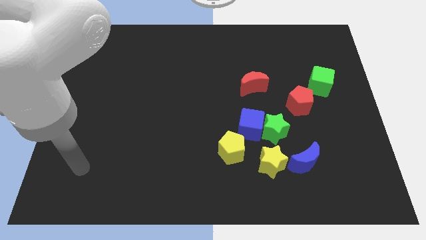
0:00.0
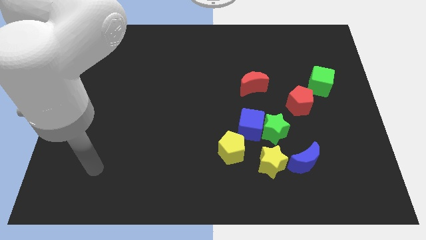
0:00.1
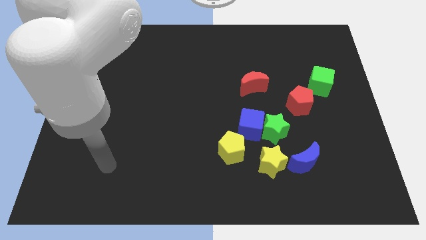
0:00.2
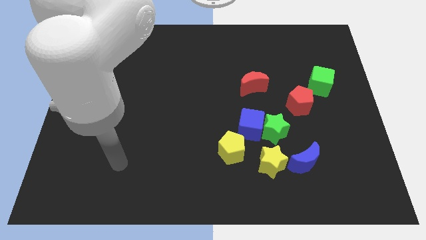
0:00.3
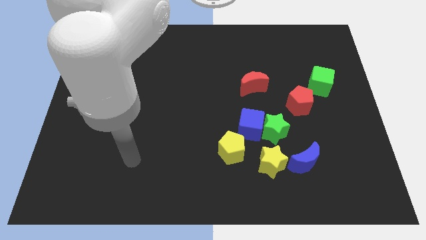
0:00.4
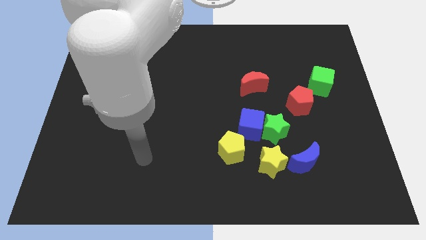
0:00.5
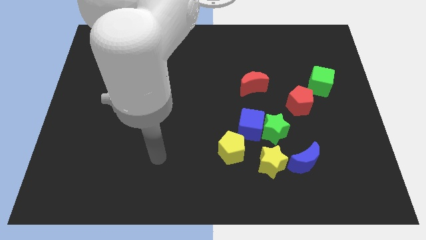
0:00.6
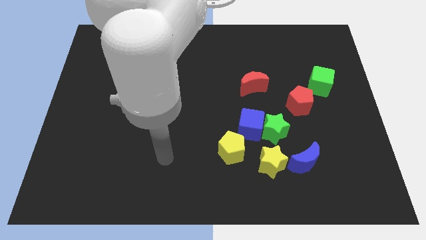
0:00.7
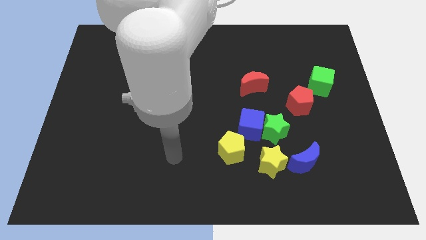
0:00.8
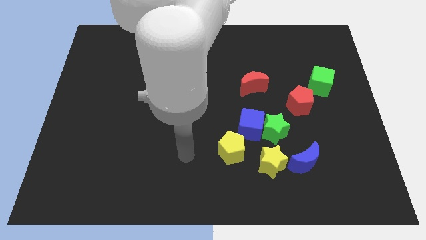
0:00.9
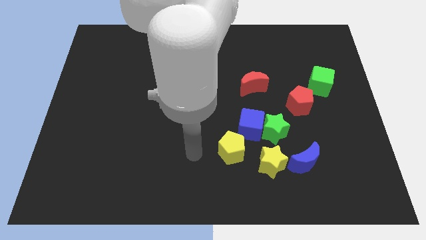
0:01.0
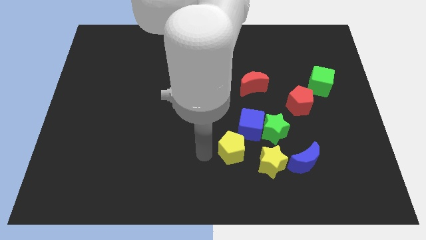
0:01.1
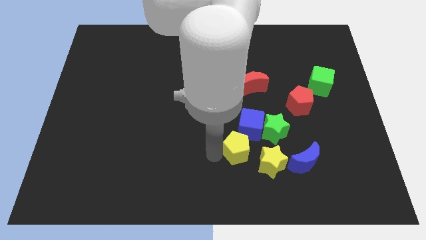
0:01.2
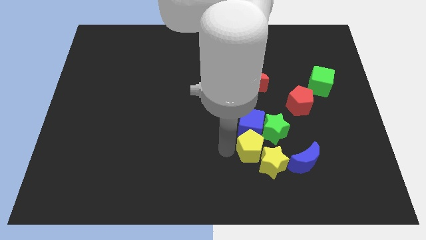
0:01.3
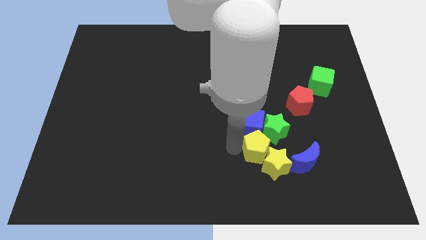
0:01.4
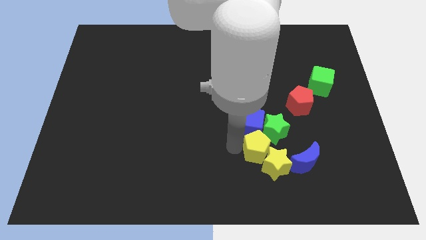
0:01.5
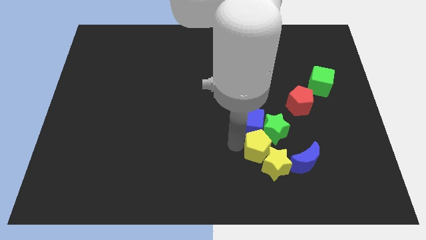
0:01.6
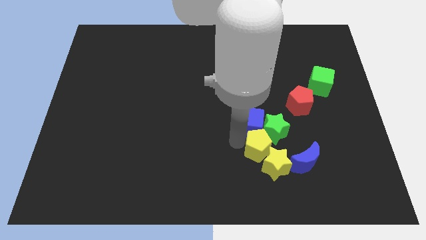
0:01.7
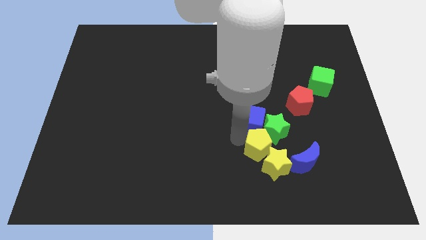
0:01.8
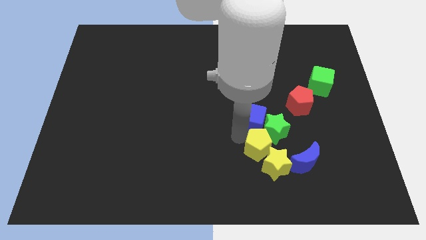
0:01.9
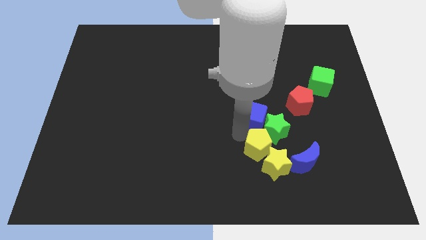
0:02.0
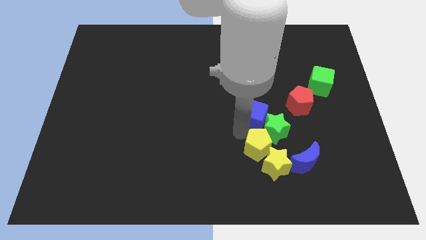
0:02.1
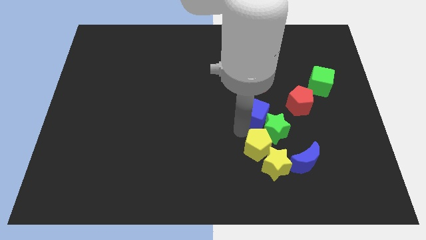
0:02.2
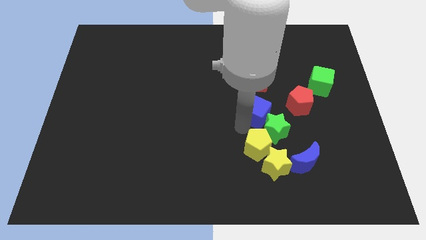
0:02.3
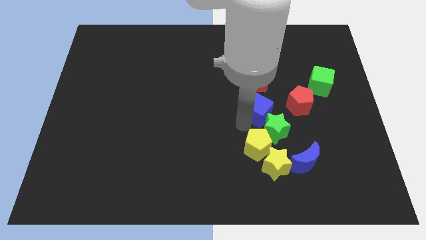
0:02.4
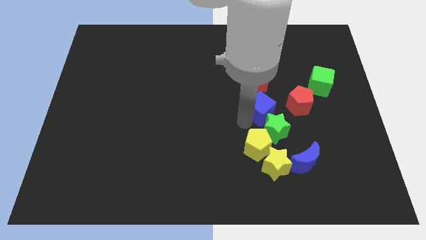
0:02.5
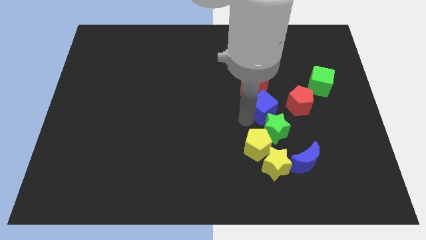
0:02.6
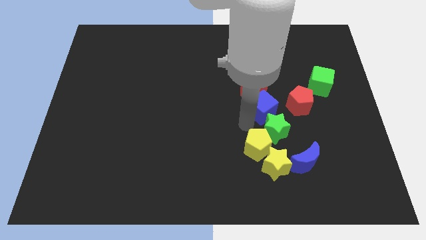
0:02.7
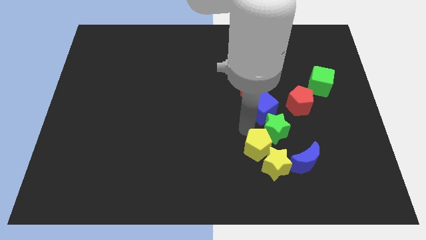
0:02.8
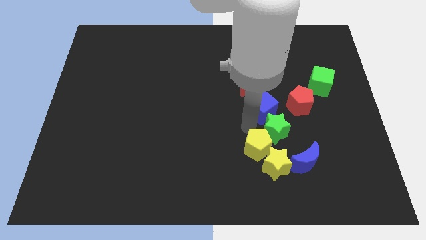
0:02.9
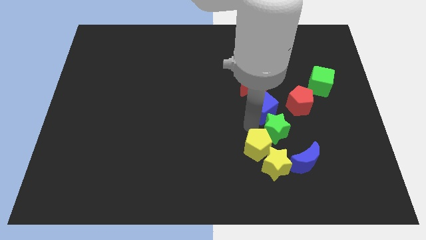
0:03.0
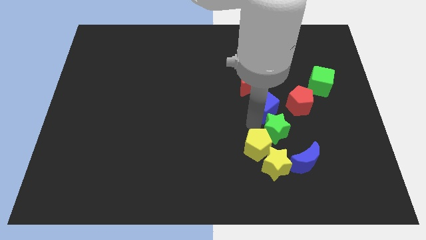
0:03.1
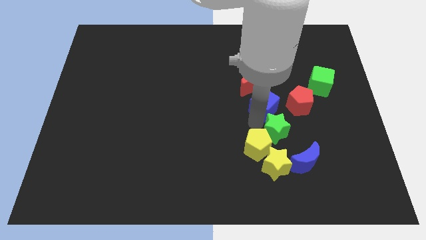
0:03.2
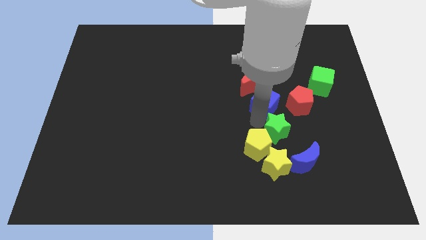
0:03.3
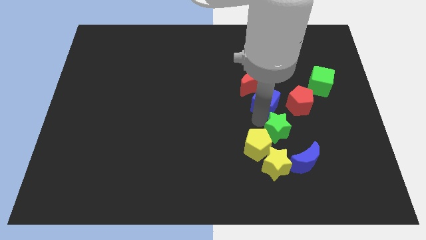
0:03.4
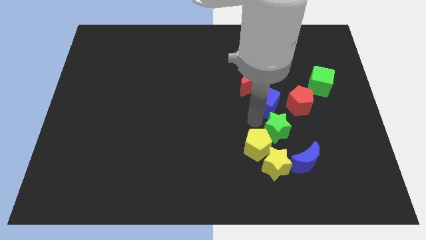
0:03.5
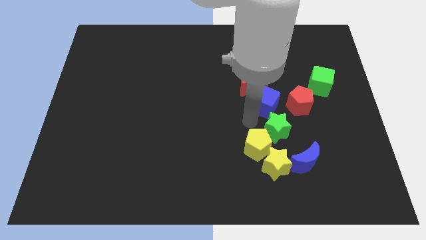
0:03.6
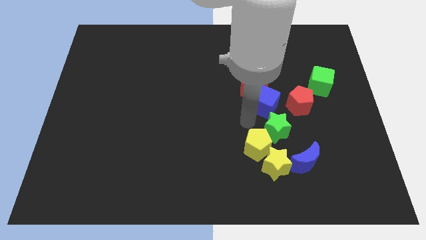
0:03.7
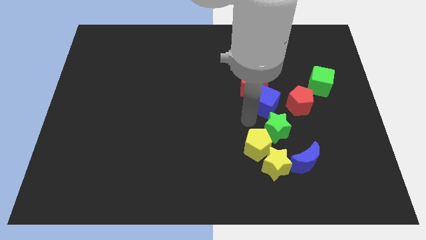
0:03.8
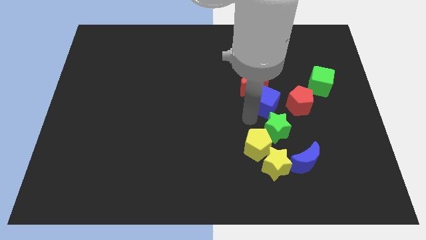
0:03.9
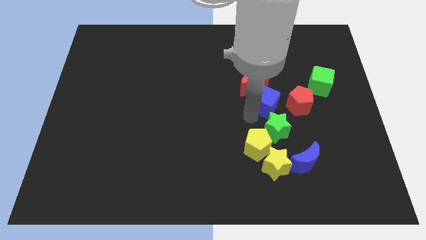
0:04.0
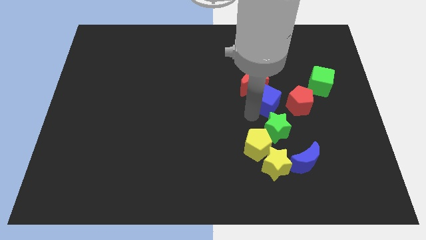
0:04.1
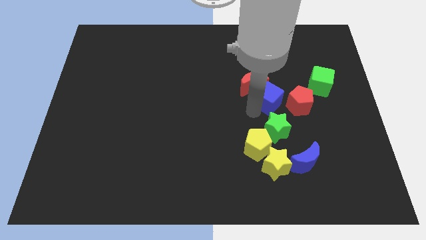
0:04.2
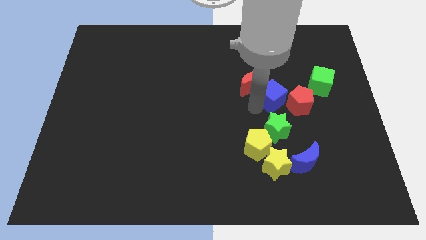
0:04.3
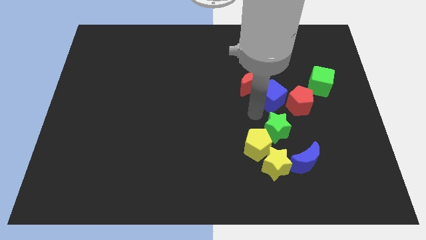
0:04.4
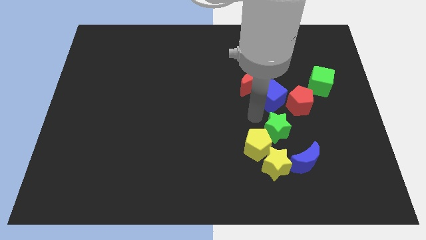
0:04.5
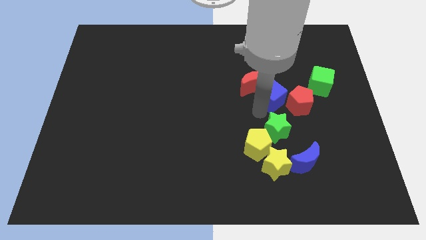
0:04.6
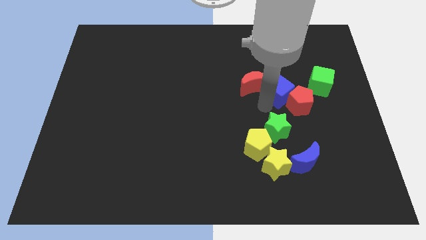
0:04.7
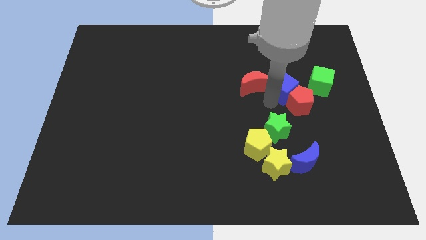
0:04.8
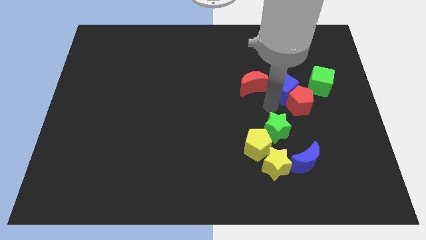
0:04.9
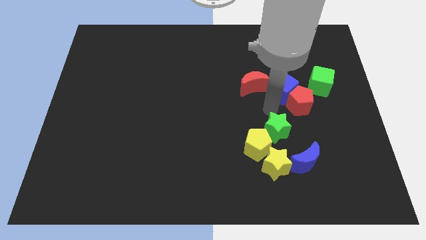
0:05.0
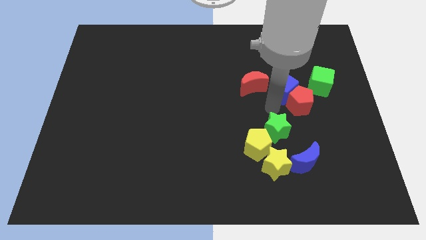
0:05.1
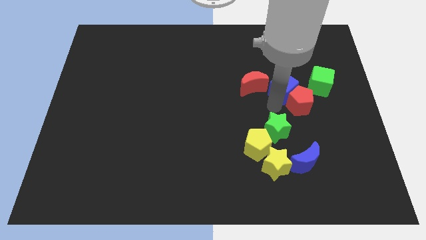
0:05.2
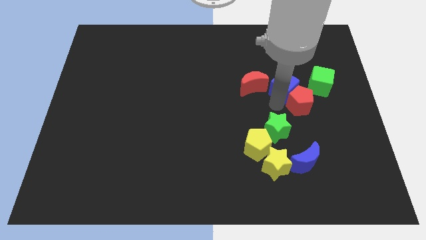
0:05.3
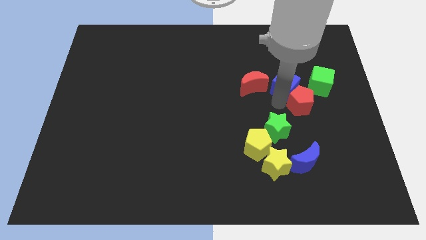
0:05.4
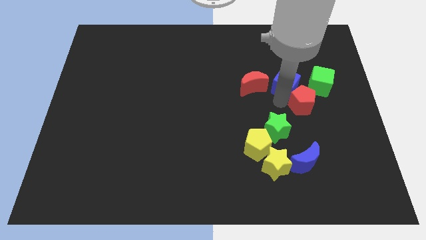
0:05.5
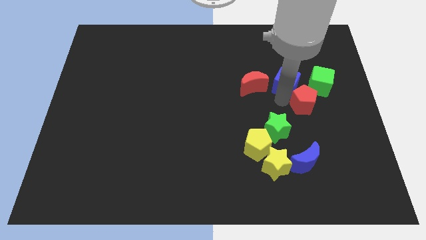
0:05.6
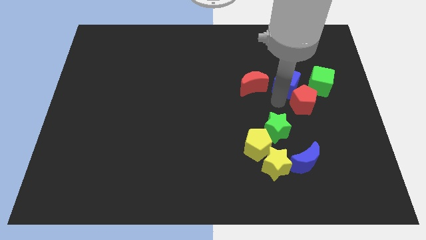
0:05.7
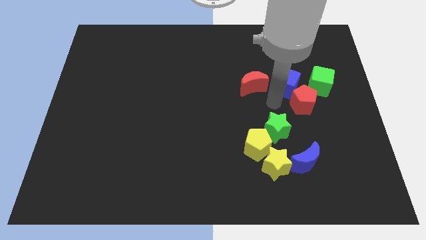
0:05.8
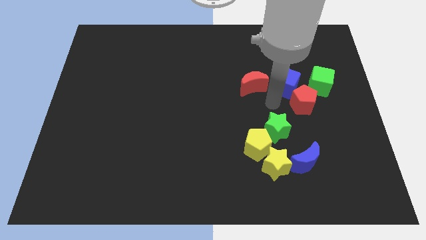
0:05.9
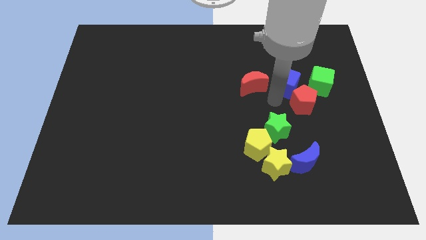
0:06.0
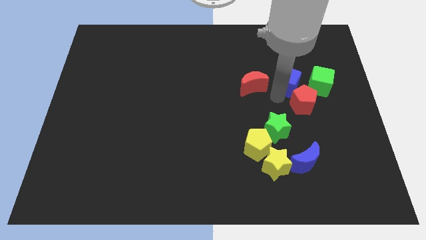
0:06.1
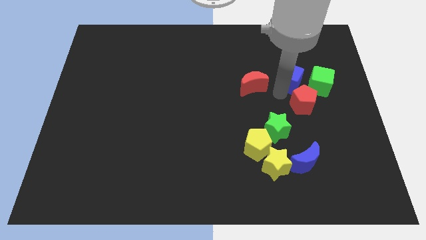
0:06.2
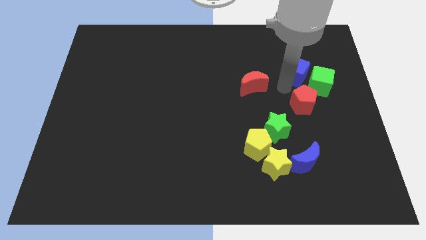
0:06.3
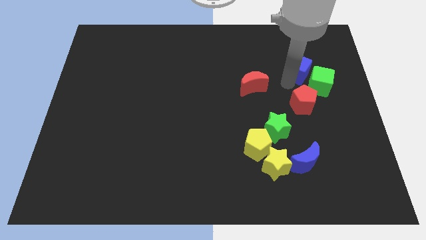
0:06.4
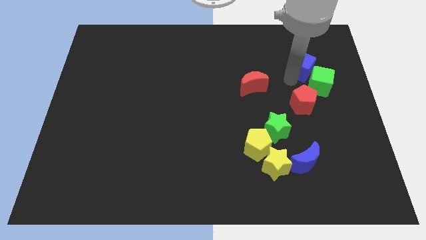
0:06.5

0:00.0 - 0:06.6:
slide the blue cube to the top of the green cube

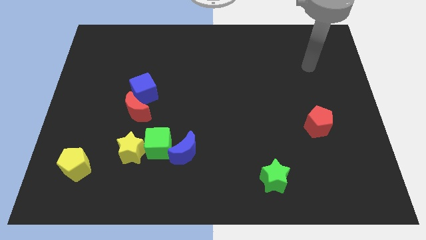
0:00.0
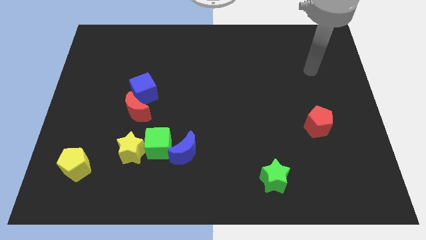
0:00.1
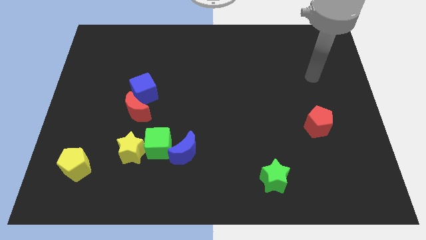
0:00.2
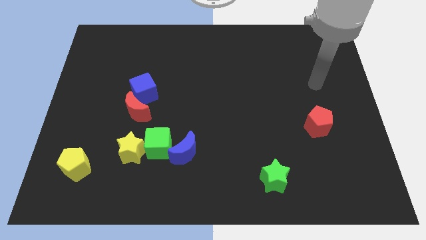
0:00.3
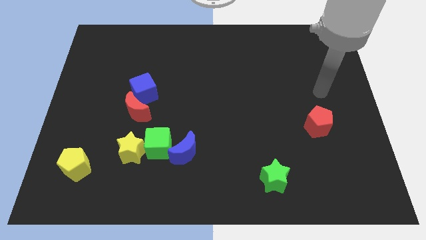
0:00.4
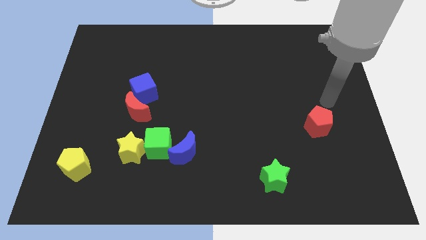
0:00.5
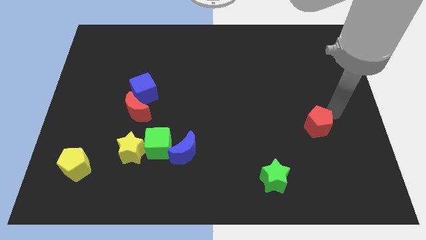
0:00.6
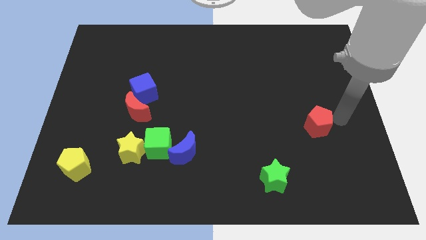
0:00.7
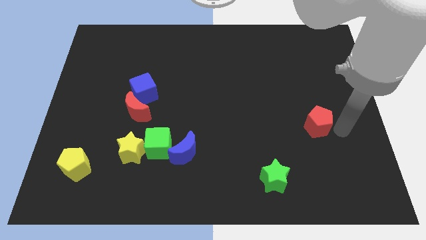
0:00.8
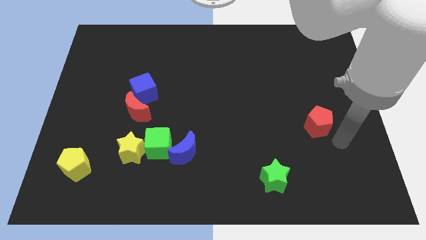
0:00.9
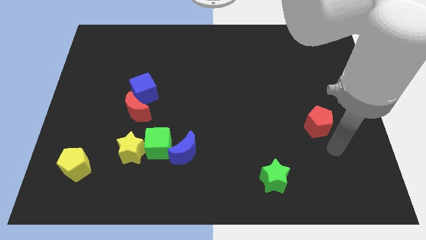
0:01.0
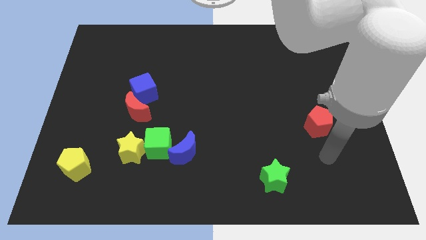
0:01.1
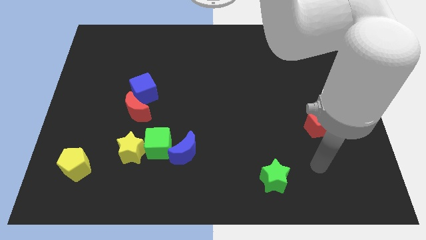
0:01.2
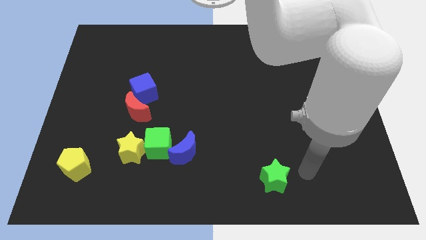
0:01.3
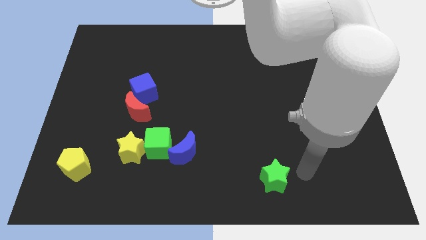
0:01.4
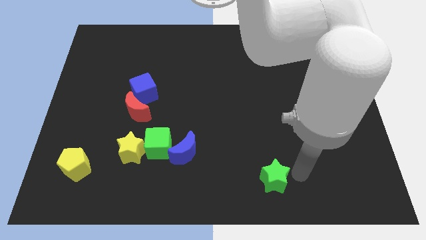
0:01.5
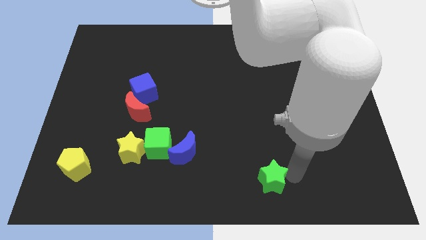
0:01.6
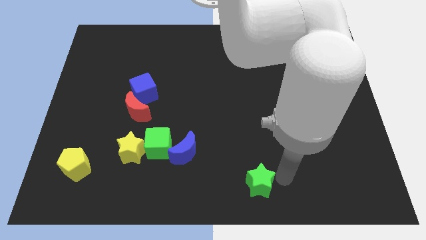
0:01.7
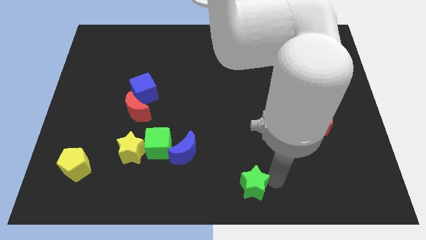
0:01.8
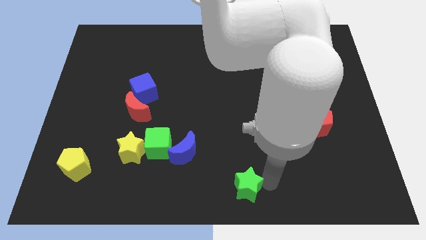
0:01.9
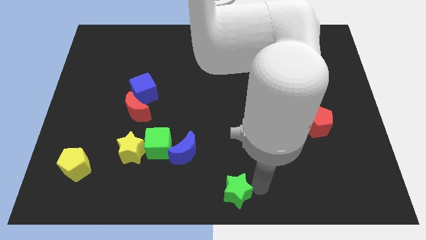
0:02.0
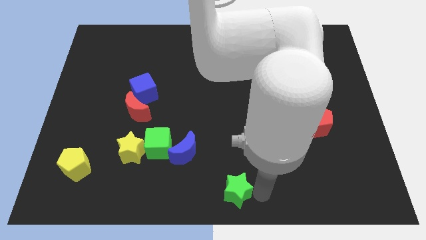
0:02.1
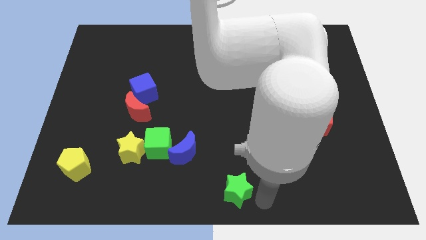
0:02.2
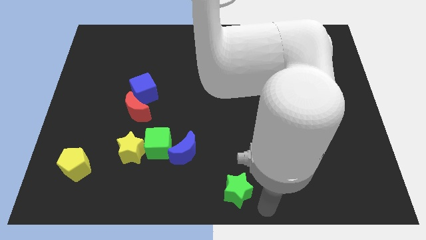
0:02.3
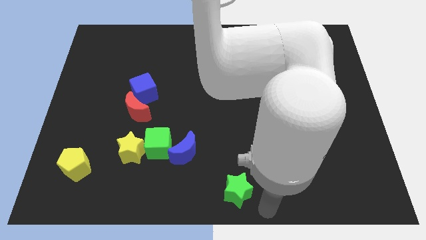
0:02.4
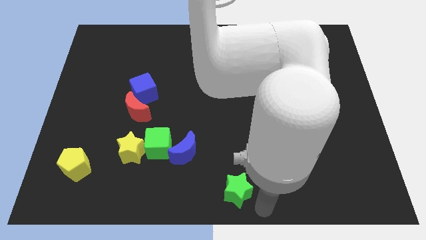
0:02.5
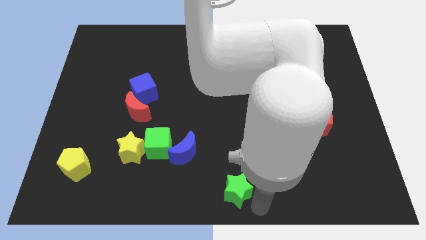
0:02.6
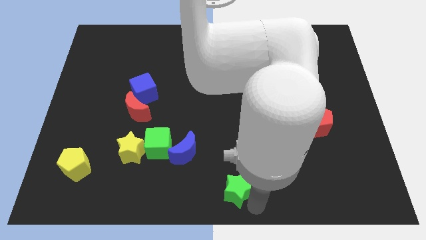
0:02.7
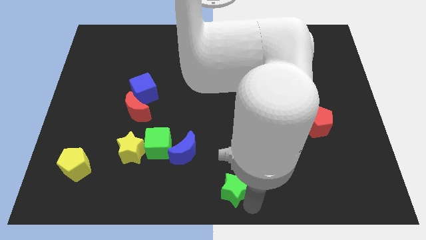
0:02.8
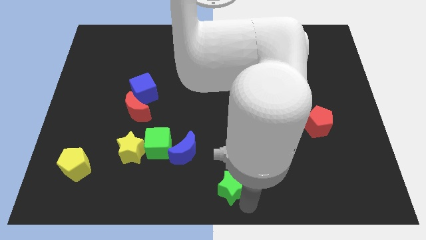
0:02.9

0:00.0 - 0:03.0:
move the green star diagonally down and to the right of the blue moon
